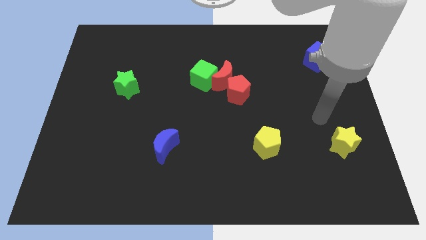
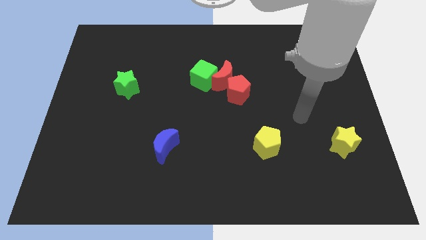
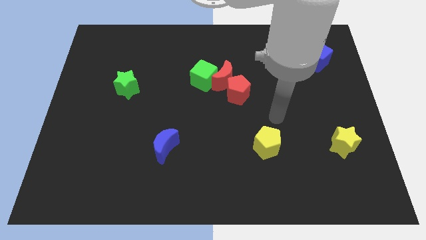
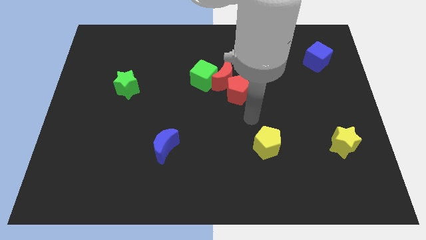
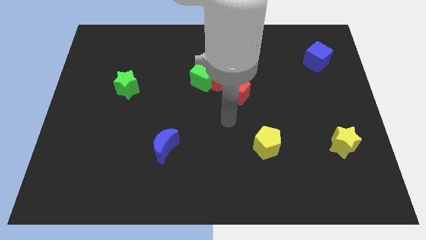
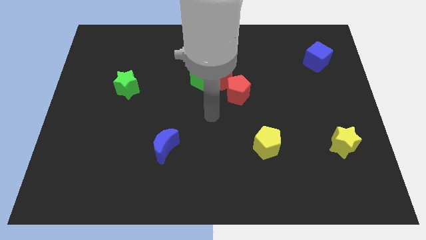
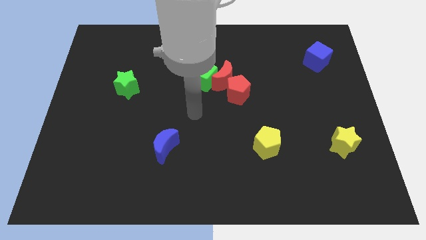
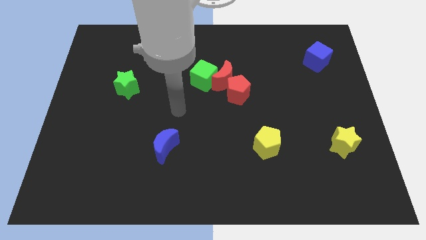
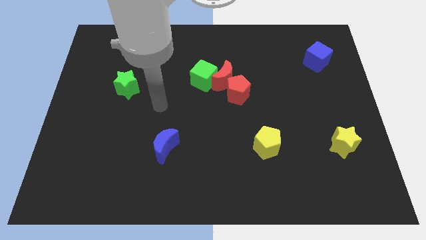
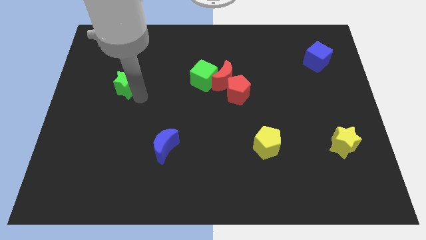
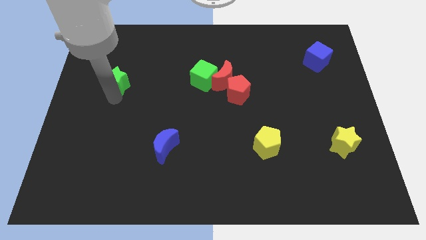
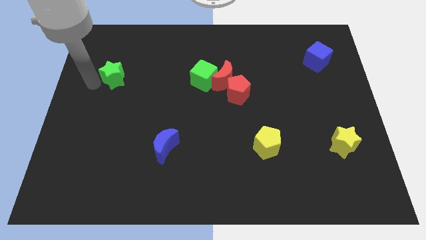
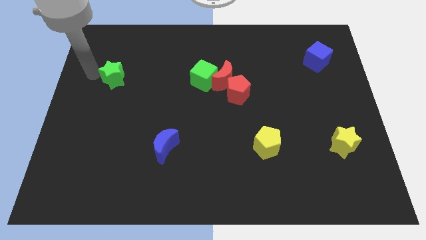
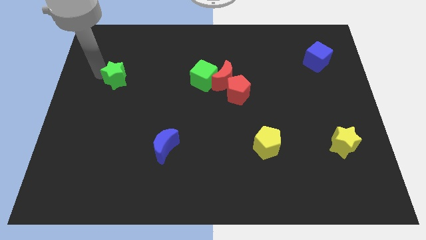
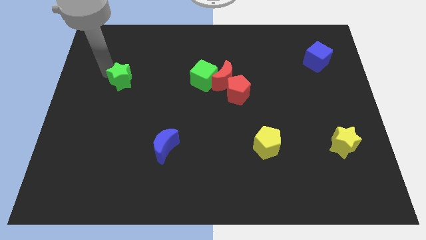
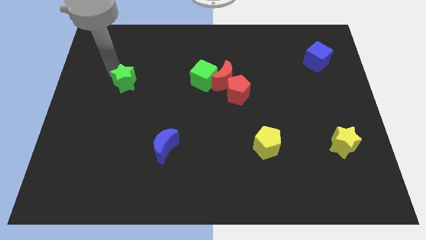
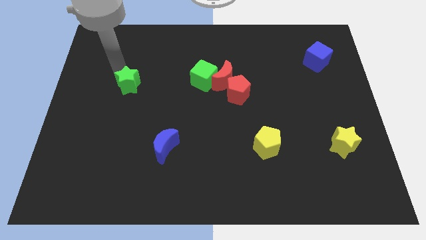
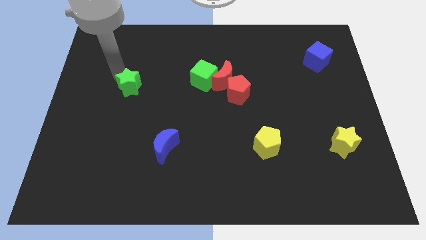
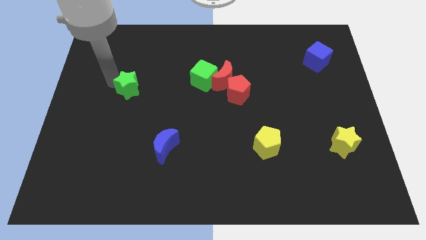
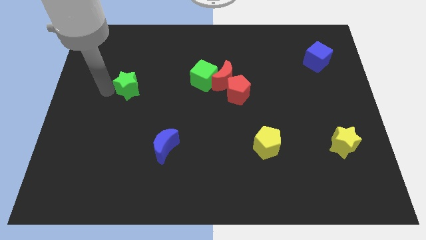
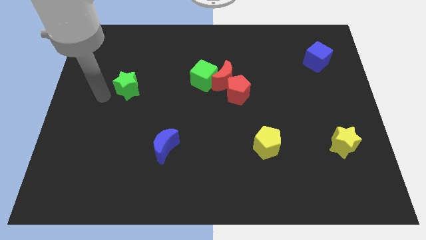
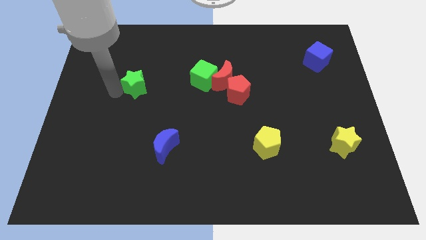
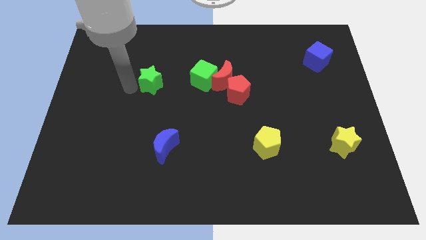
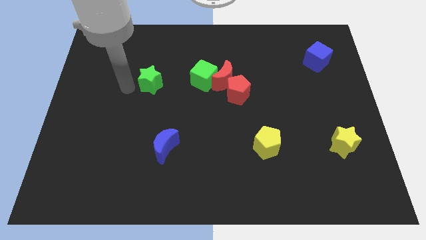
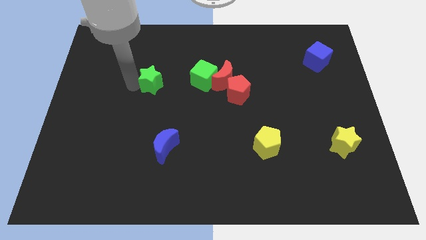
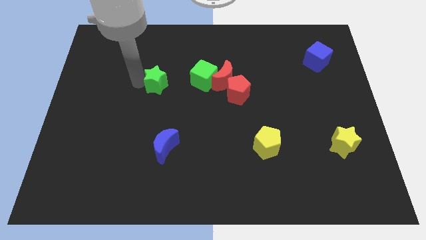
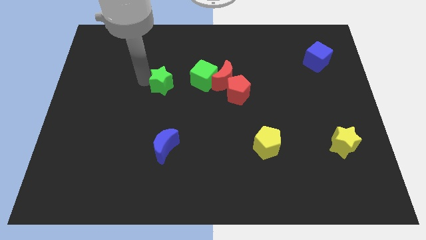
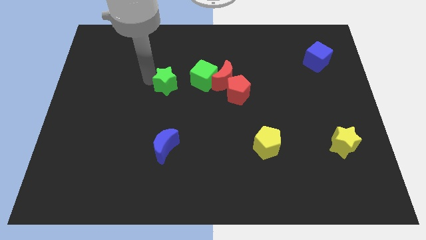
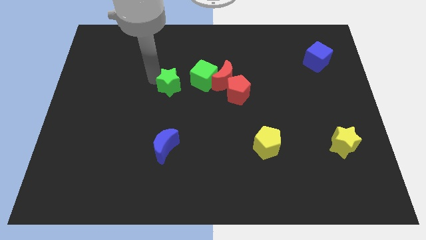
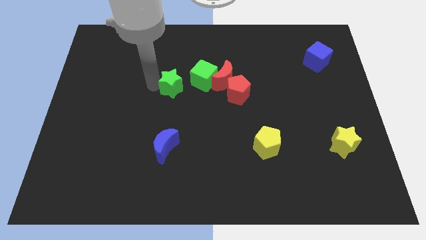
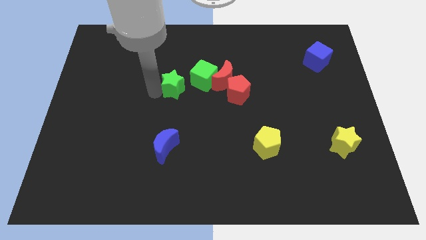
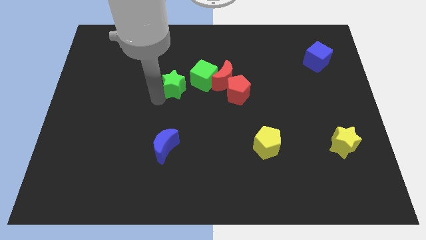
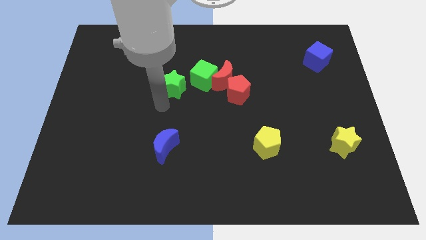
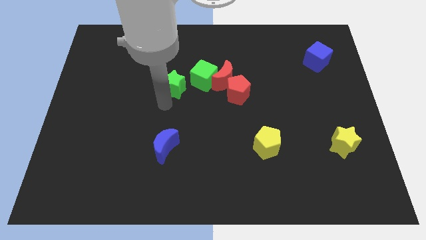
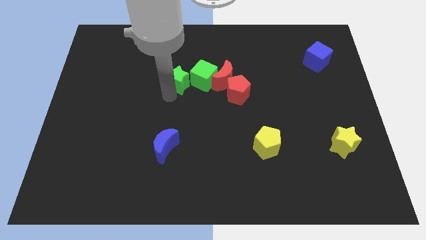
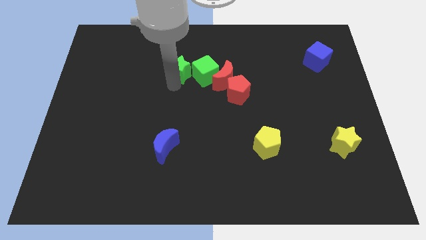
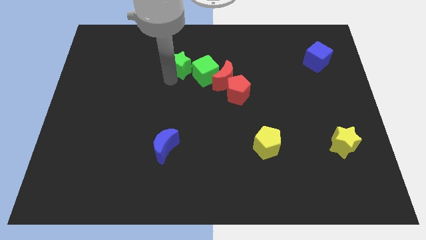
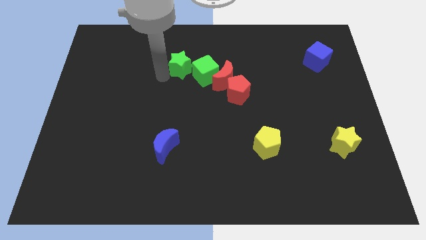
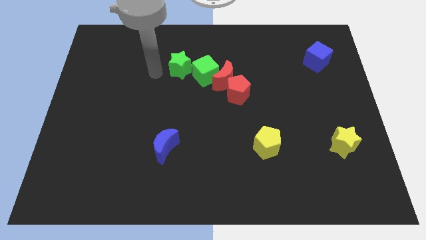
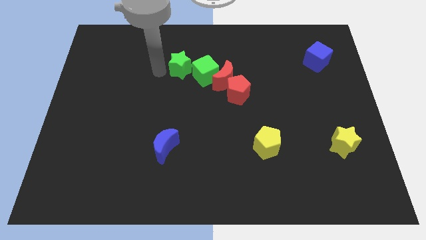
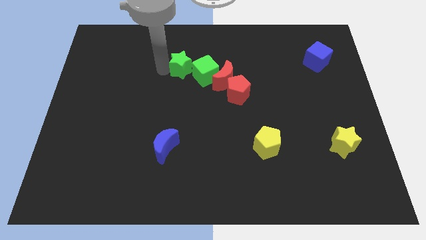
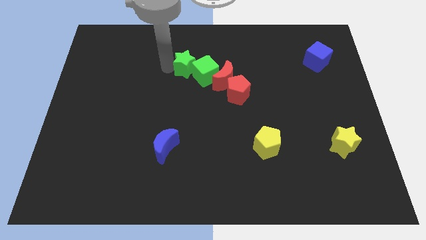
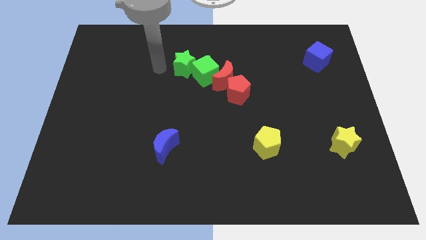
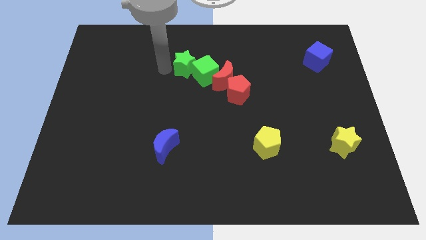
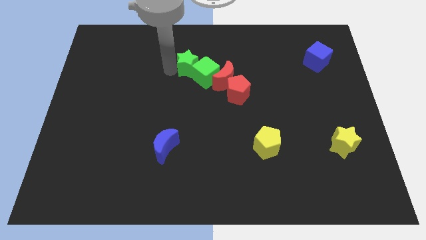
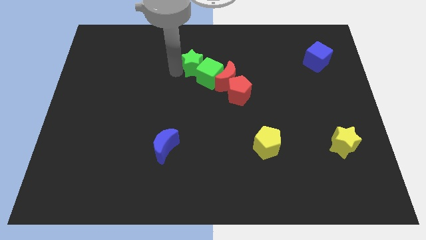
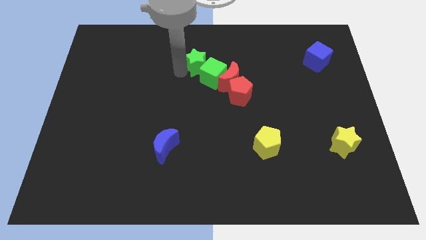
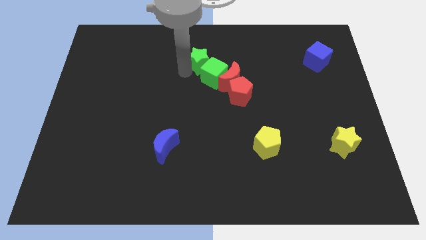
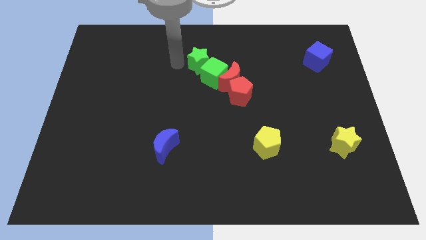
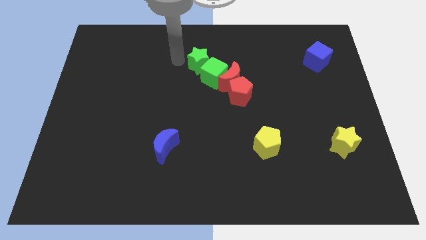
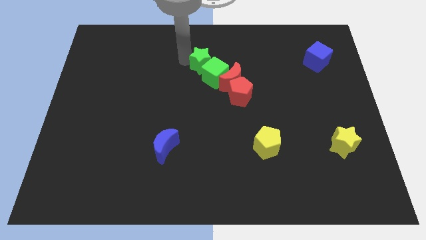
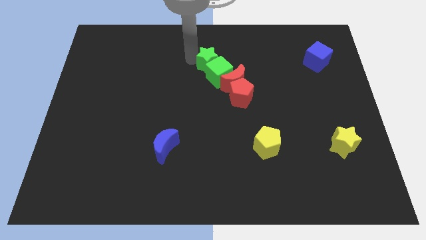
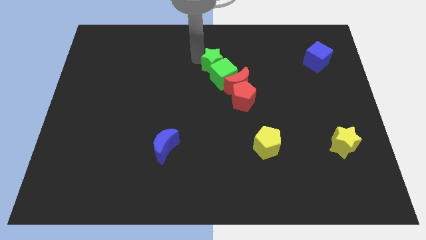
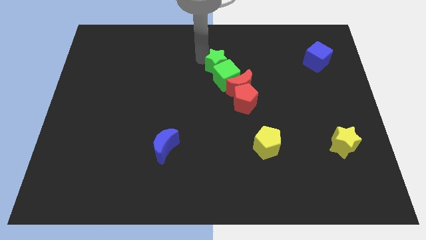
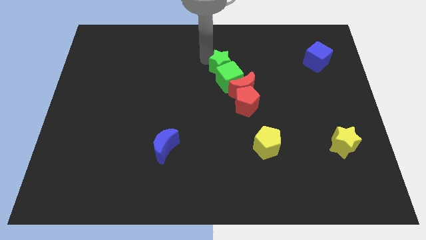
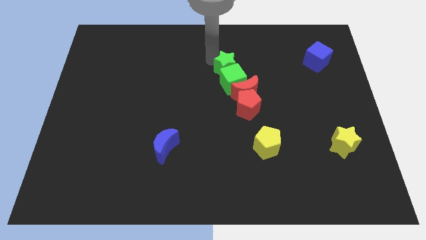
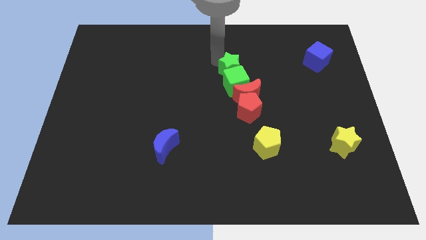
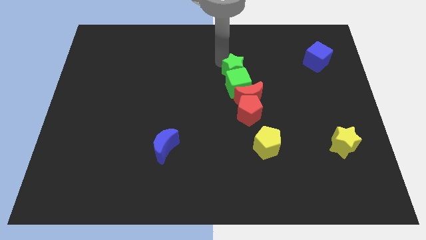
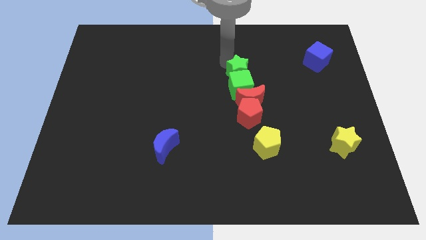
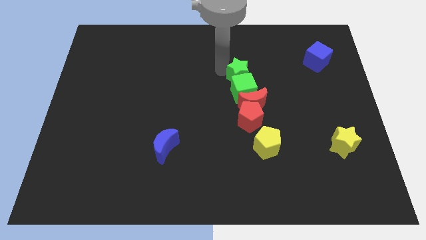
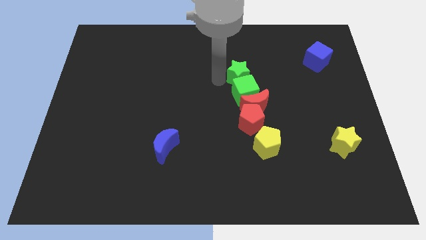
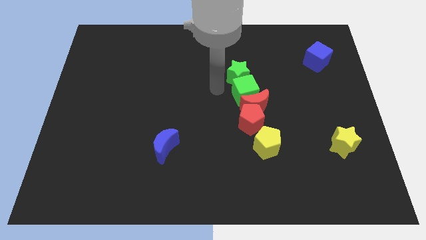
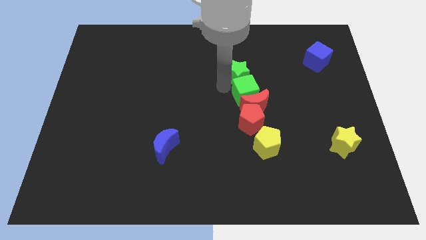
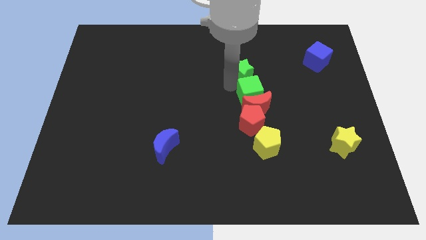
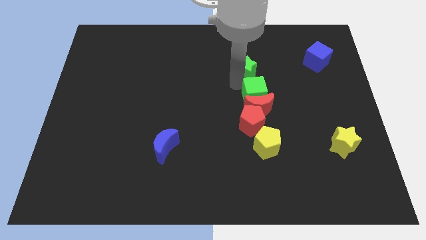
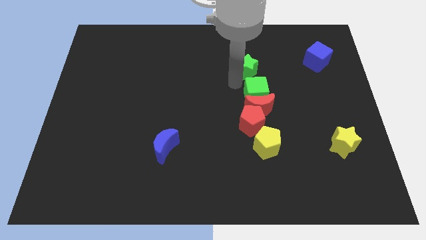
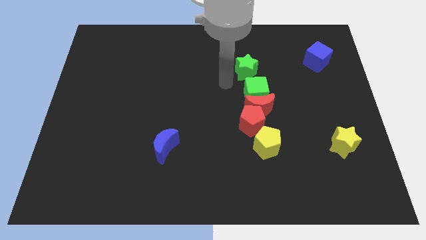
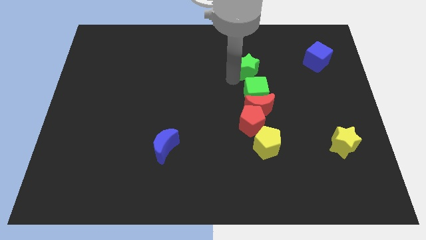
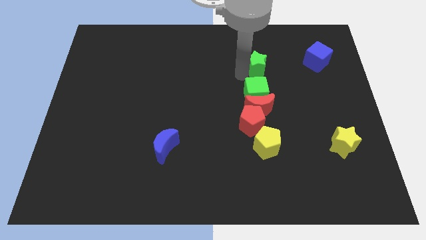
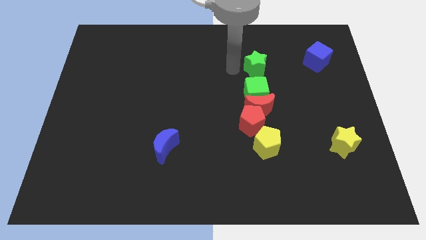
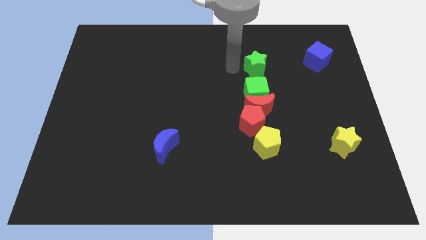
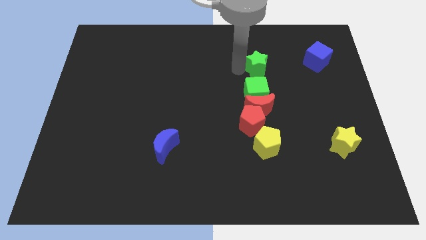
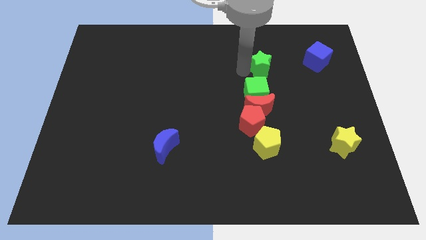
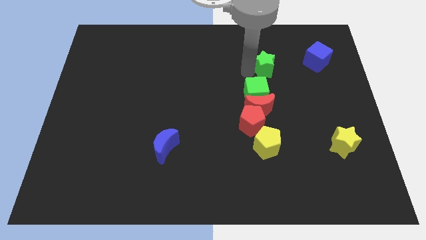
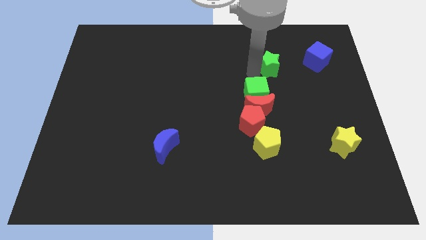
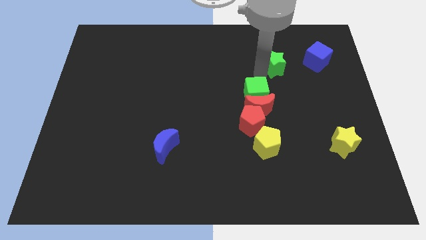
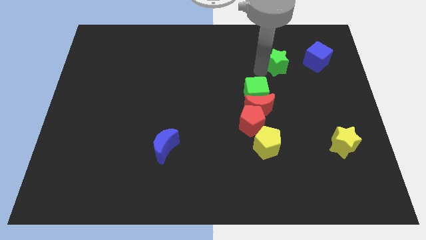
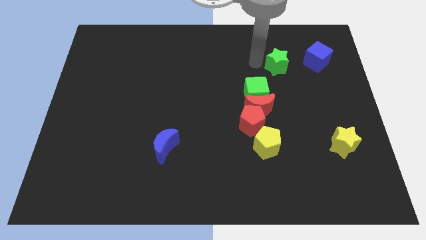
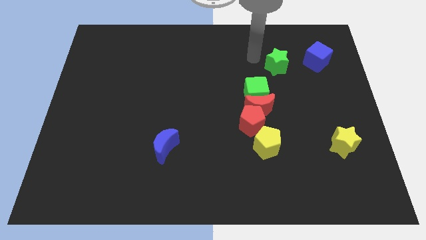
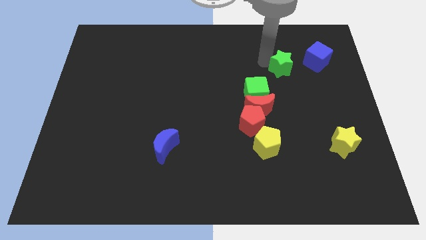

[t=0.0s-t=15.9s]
slide the green star diagonally down and to the left of the blue cube

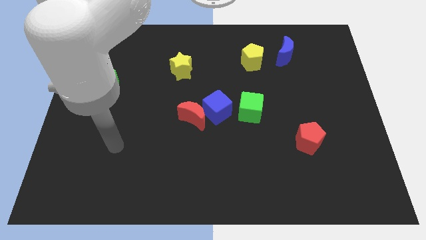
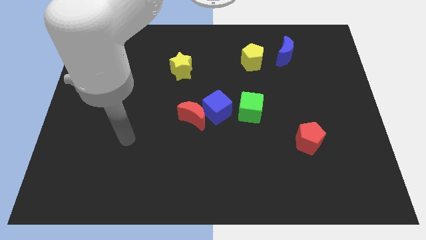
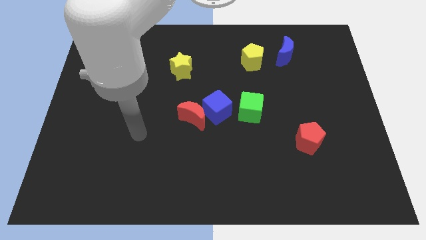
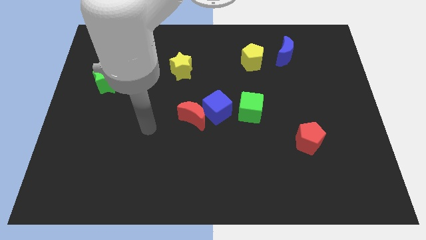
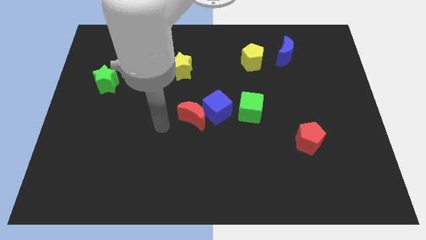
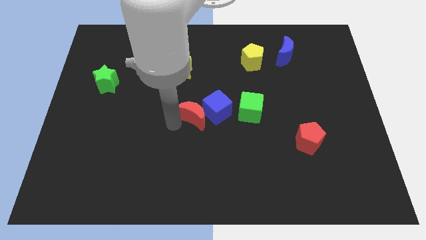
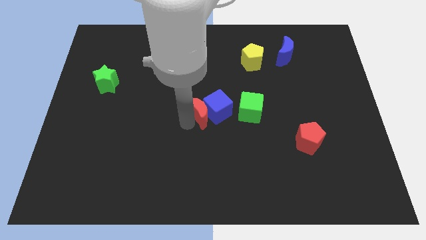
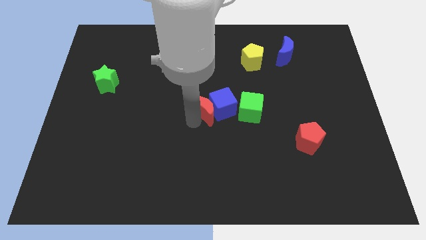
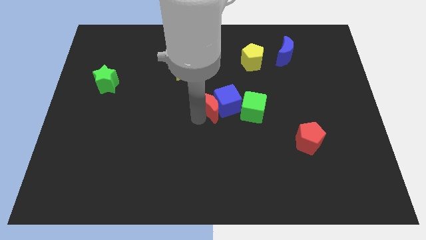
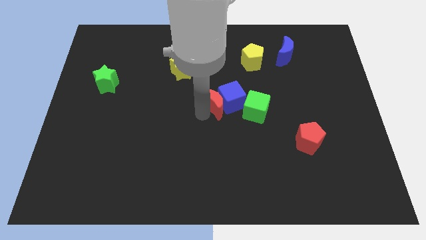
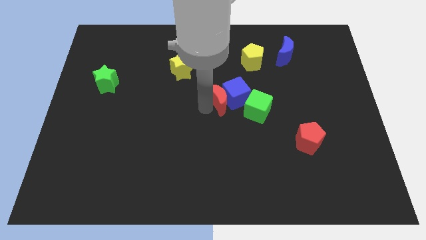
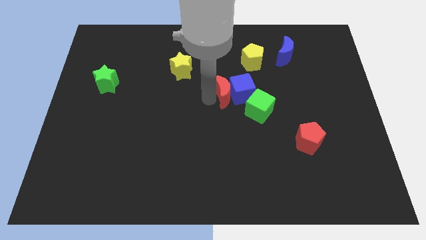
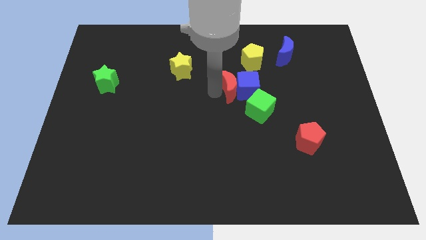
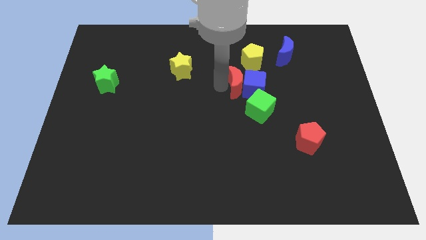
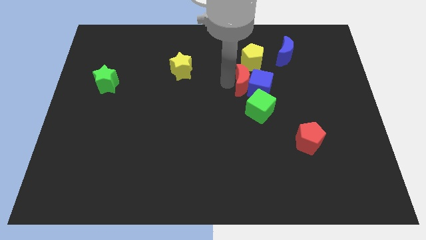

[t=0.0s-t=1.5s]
push the blue cube to the top right of the green cube
